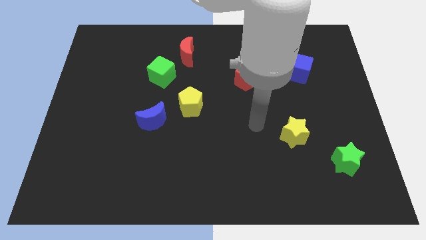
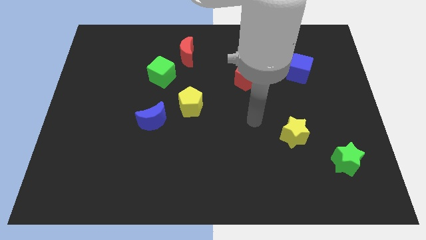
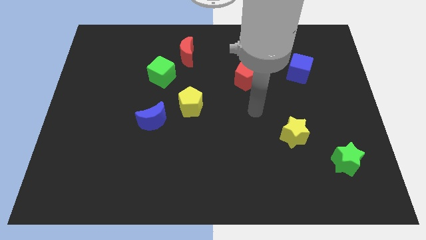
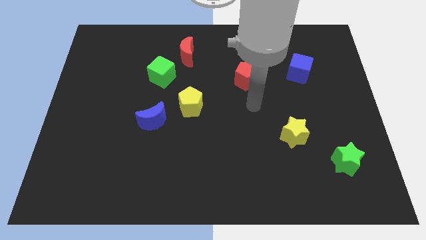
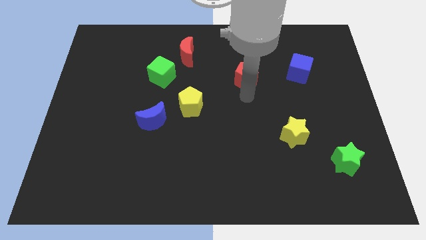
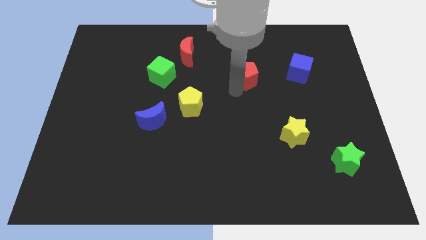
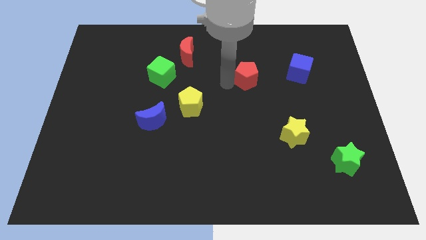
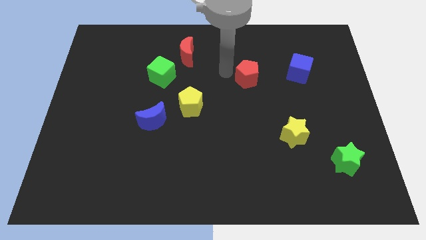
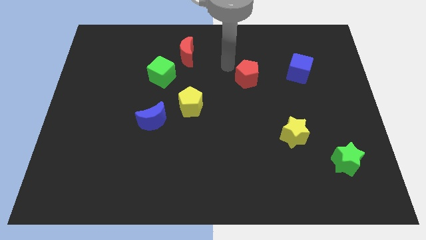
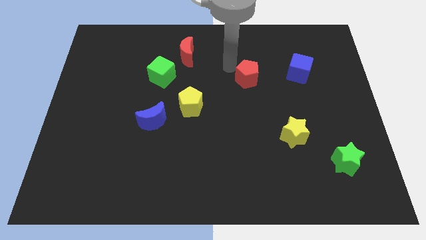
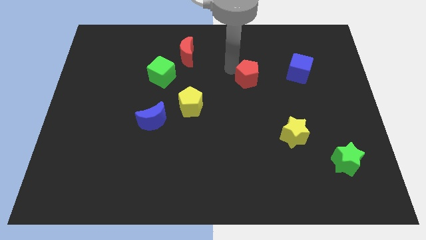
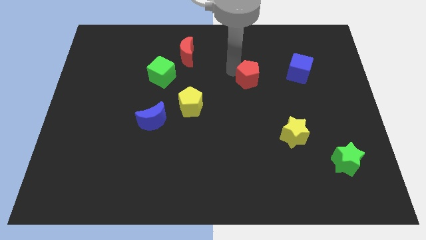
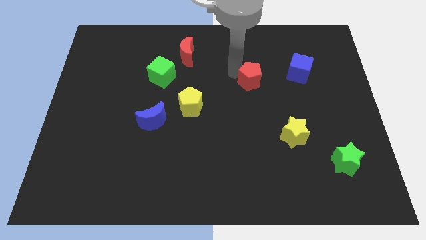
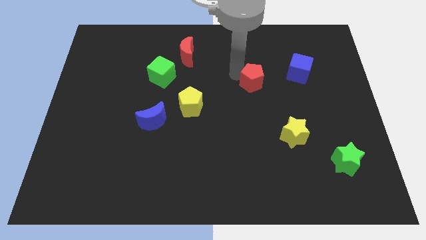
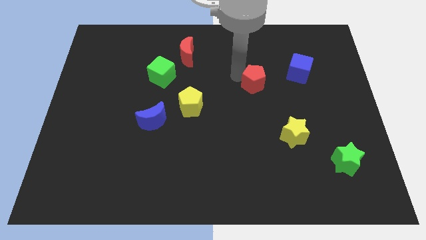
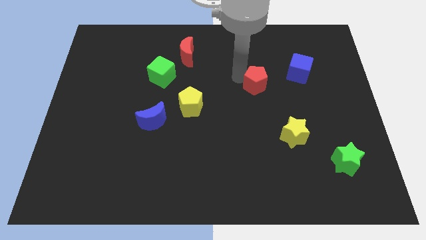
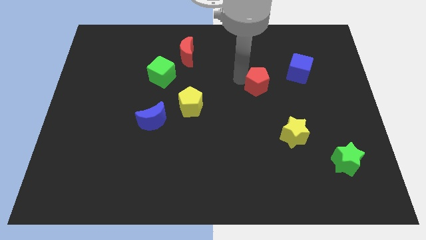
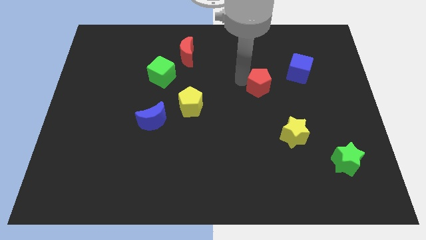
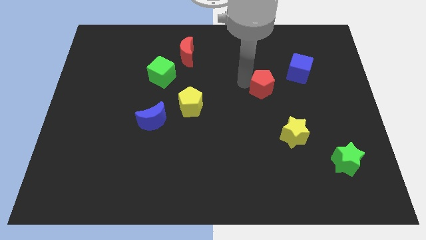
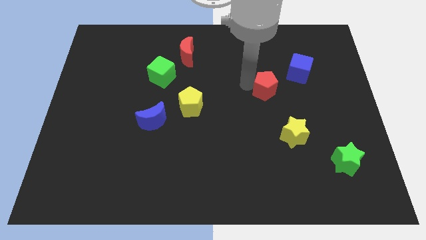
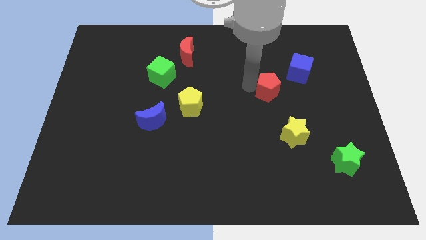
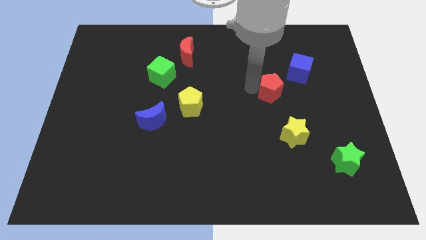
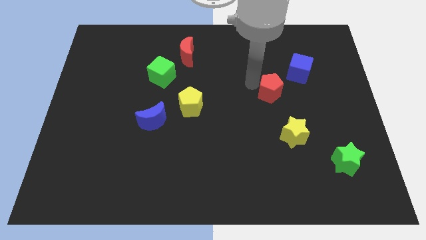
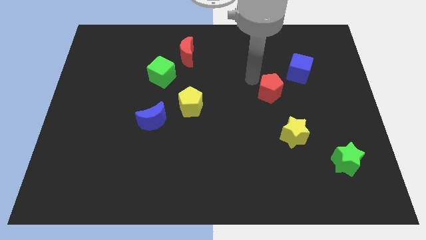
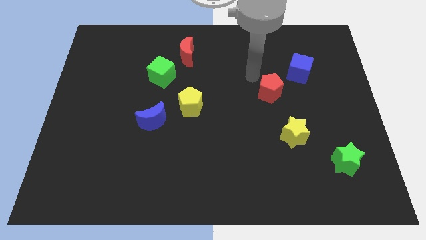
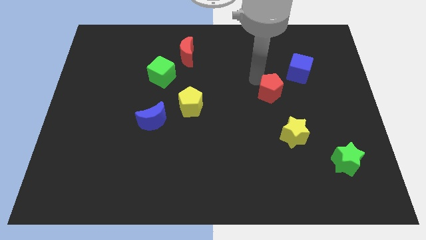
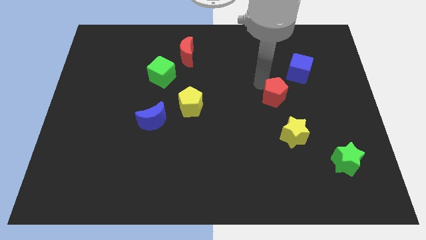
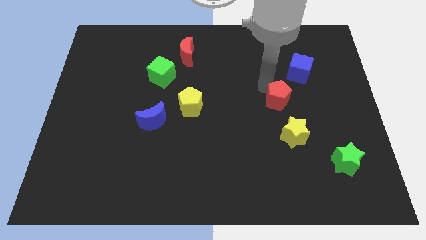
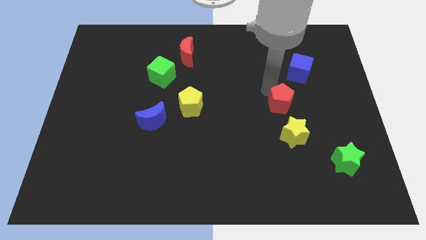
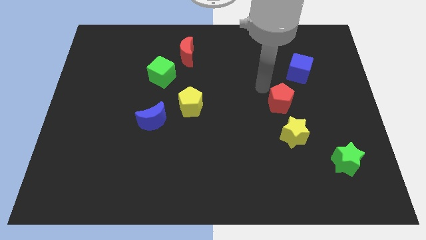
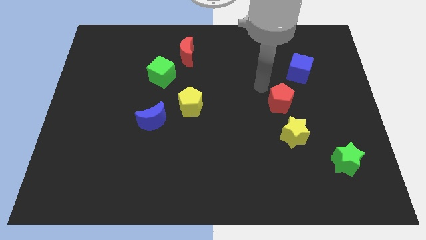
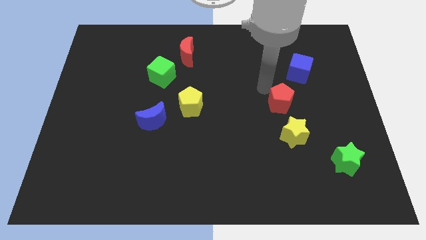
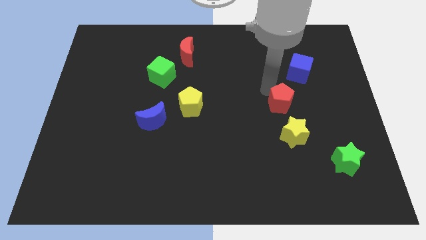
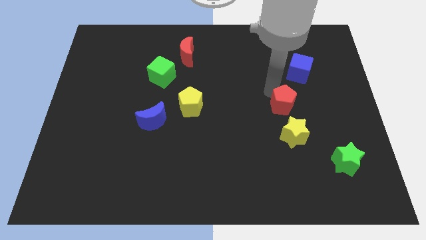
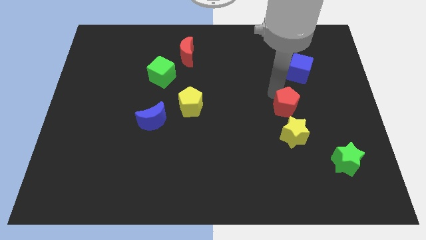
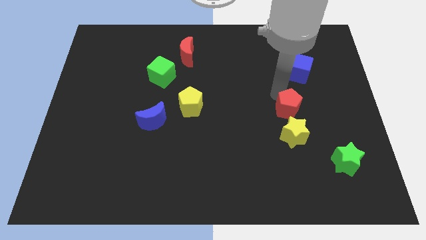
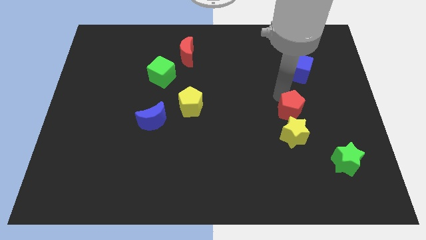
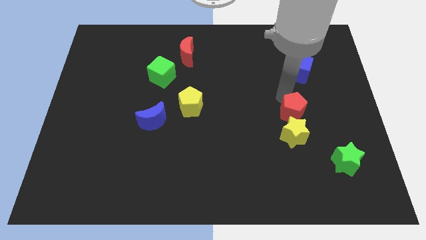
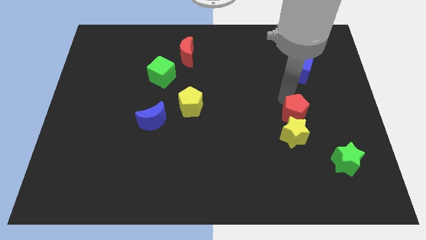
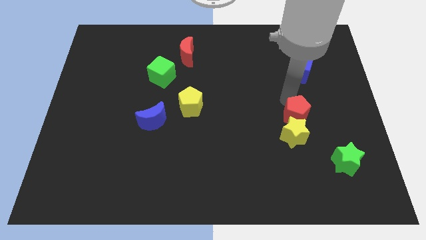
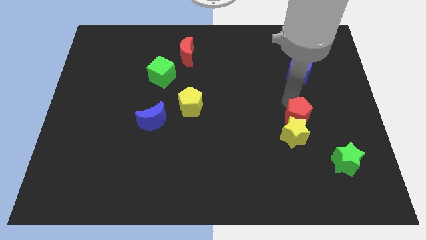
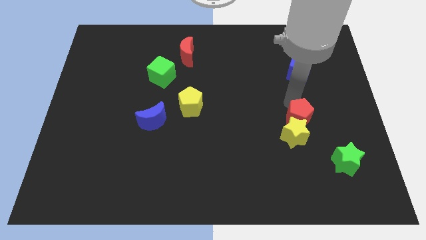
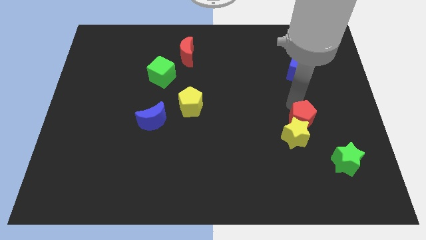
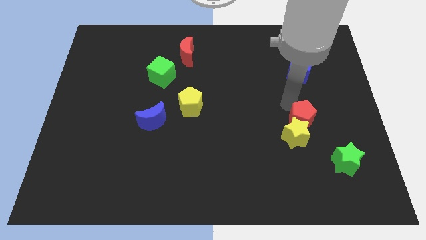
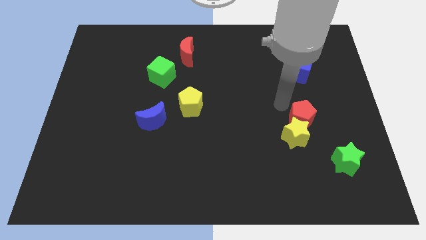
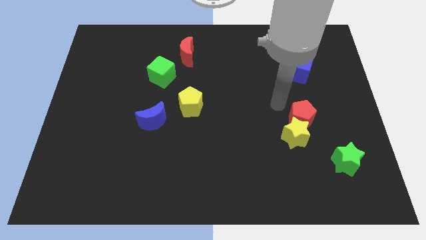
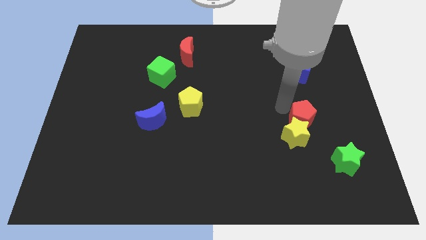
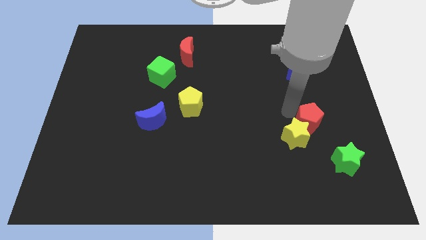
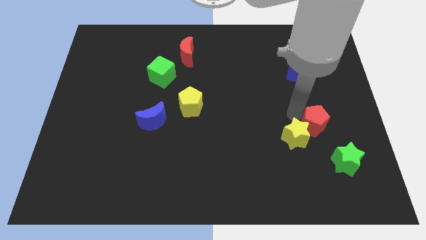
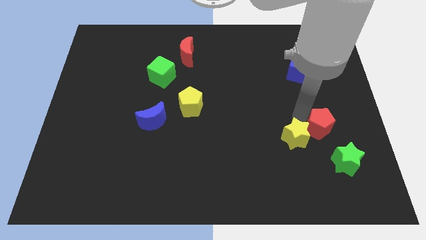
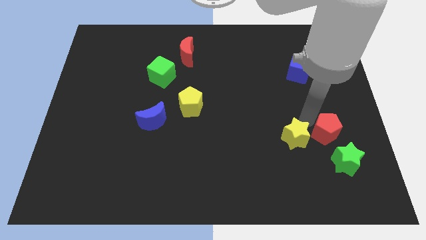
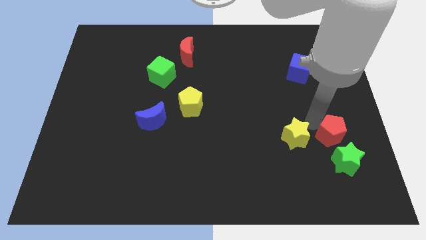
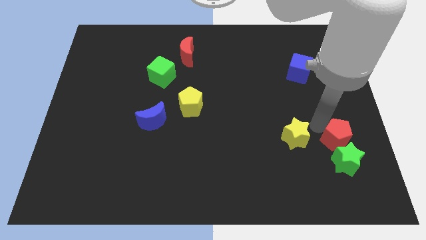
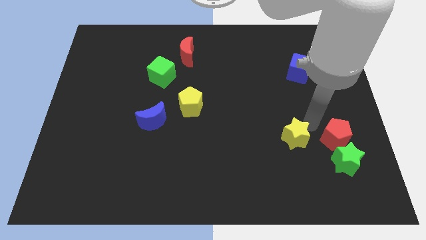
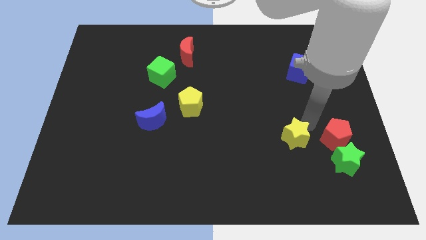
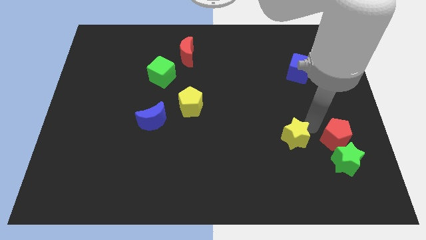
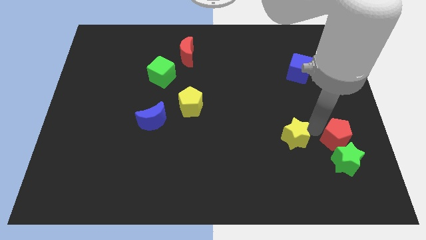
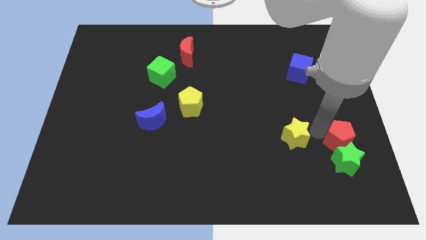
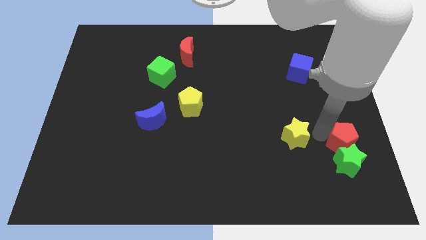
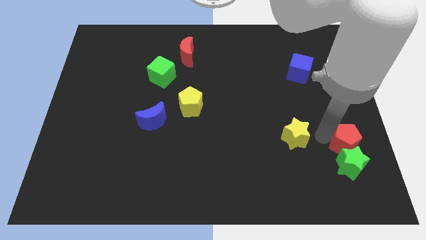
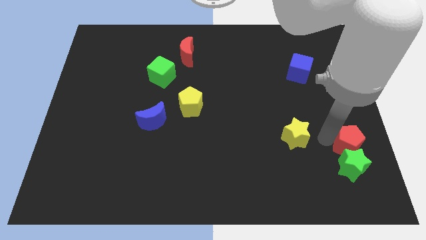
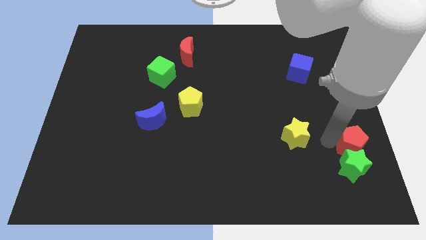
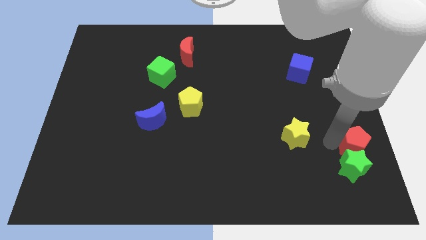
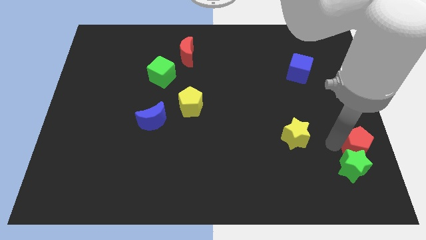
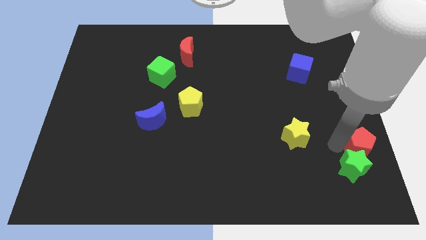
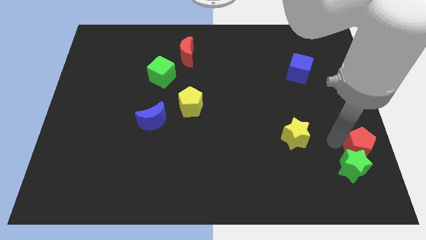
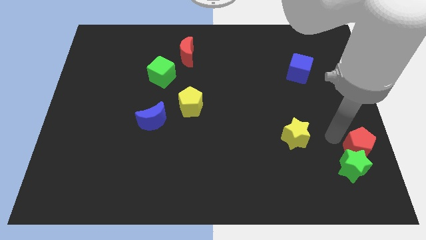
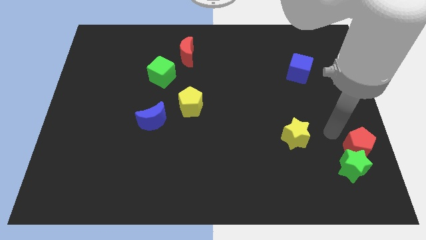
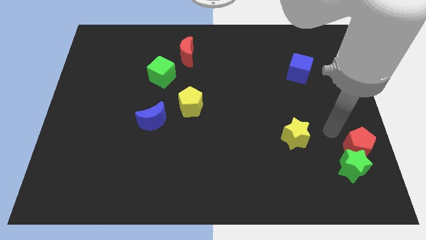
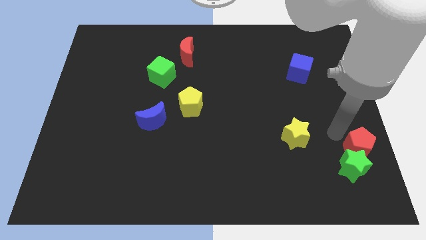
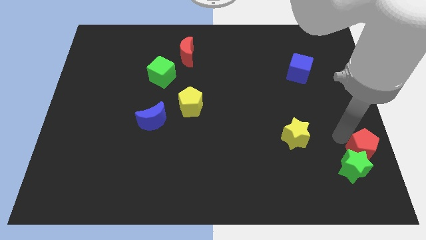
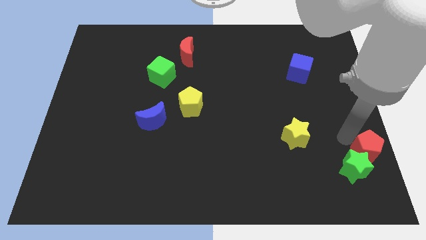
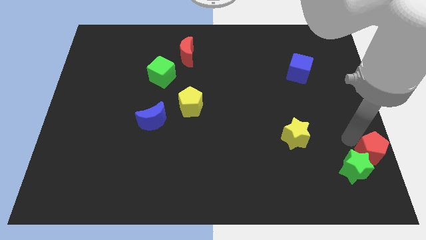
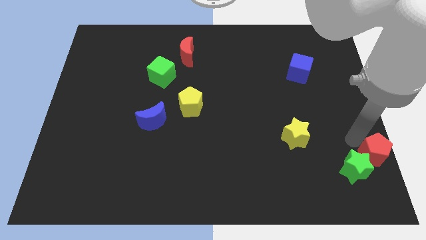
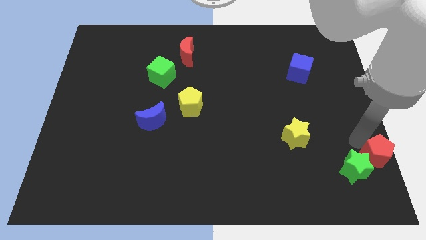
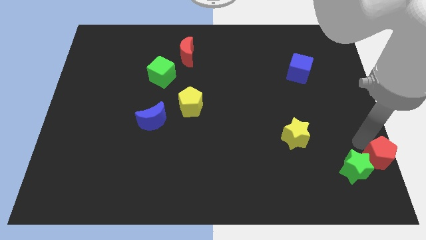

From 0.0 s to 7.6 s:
slide the red pentagon to the lower right corner
